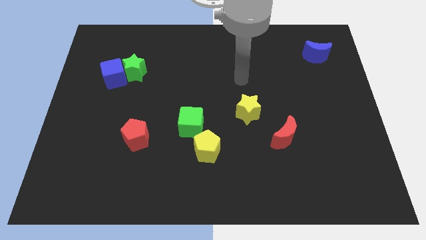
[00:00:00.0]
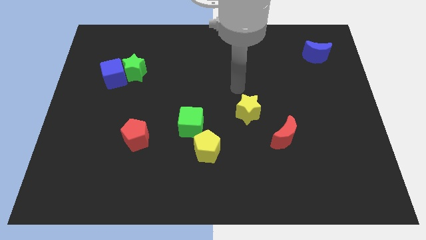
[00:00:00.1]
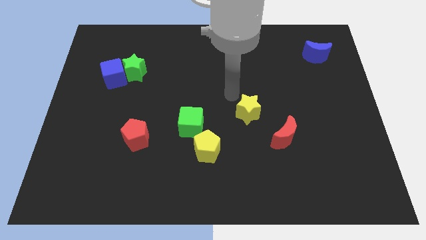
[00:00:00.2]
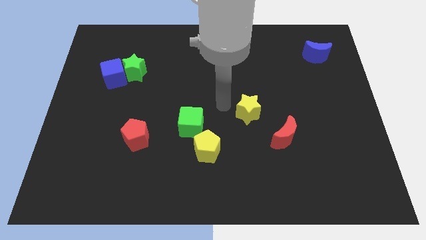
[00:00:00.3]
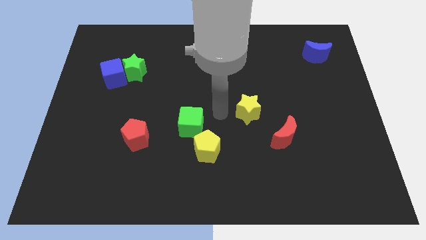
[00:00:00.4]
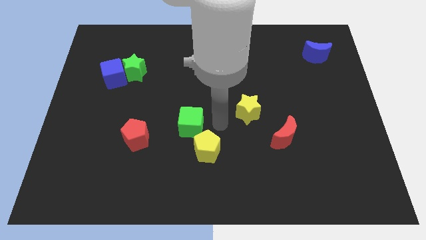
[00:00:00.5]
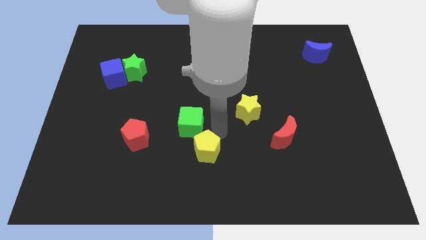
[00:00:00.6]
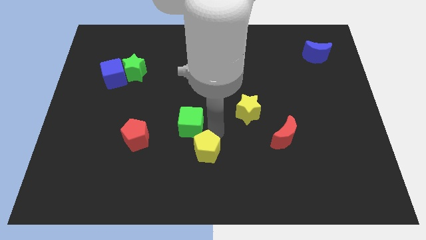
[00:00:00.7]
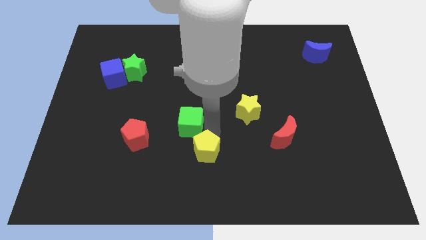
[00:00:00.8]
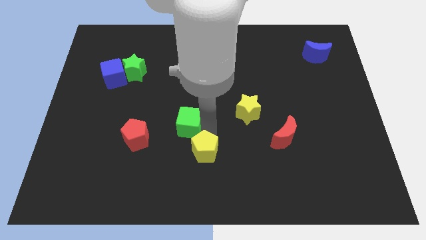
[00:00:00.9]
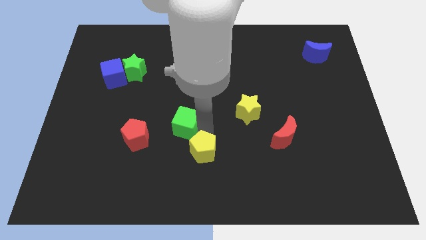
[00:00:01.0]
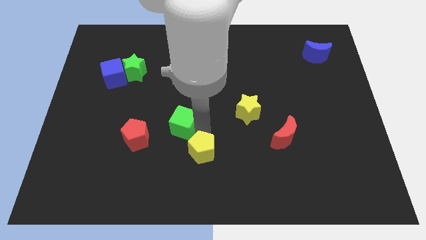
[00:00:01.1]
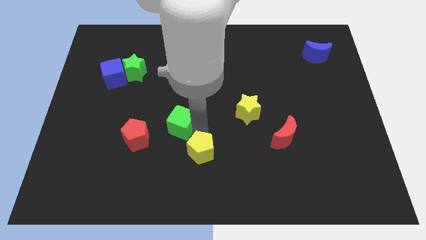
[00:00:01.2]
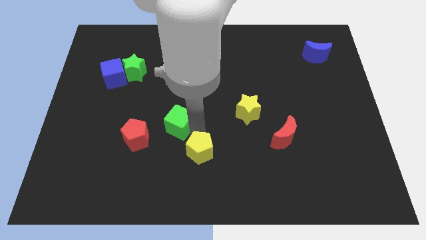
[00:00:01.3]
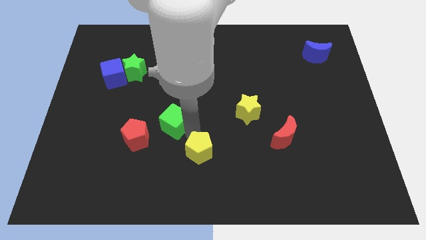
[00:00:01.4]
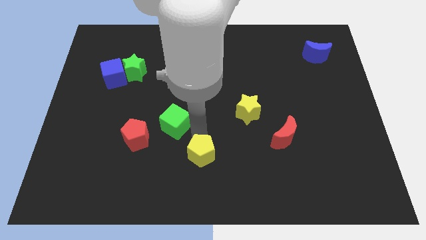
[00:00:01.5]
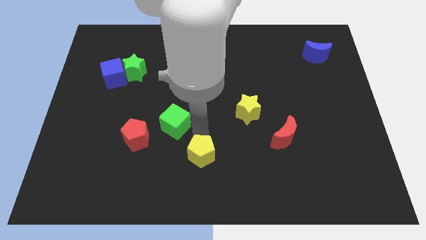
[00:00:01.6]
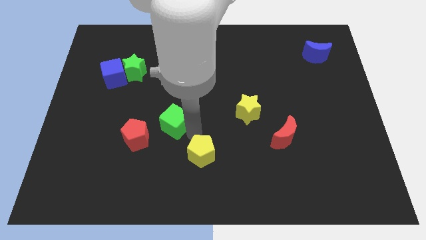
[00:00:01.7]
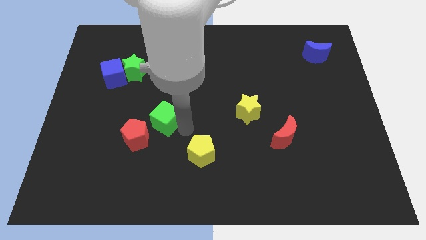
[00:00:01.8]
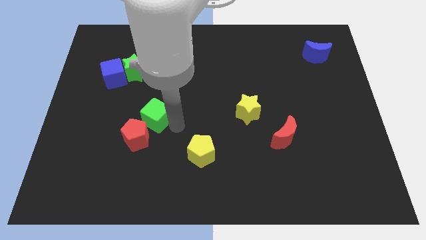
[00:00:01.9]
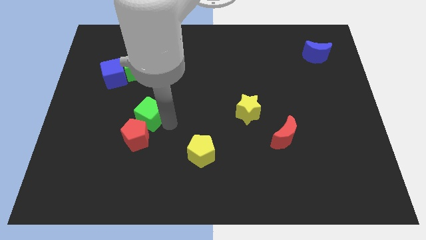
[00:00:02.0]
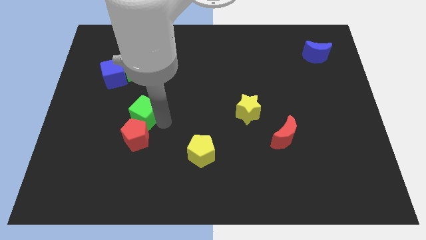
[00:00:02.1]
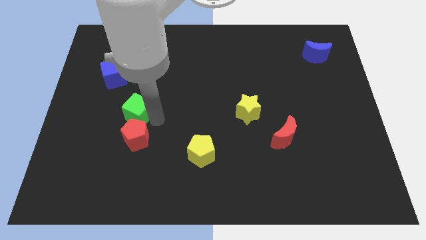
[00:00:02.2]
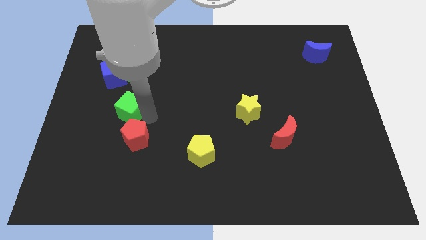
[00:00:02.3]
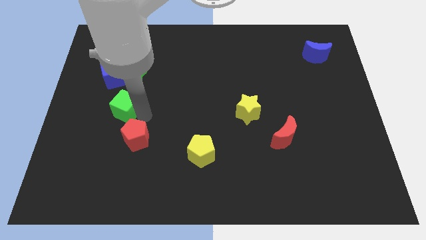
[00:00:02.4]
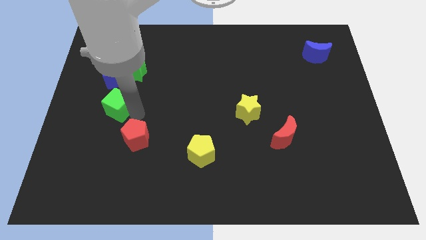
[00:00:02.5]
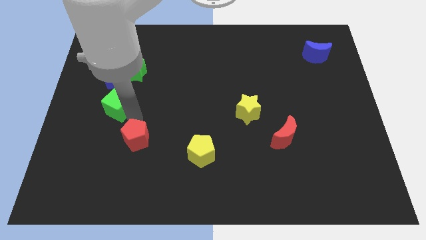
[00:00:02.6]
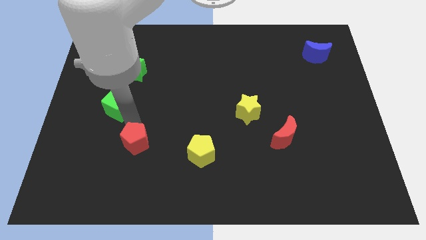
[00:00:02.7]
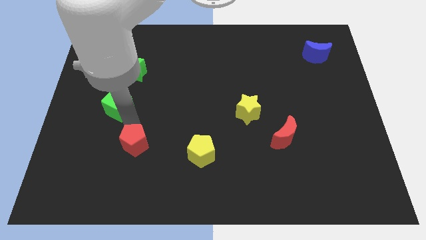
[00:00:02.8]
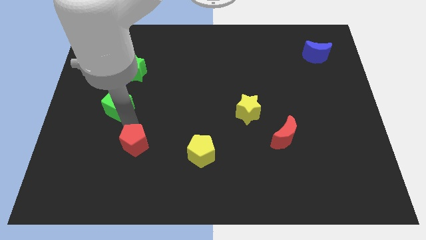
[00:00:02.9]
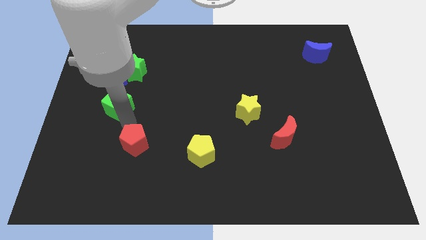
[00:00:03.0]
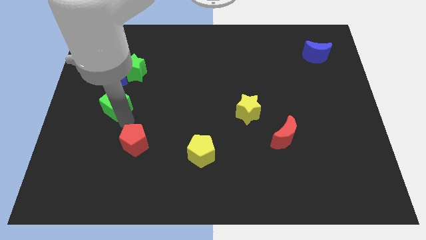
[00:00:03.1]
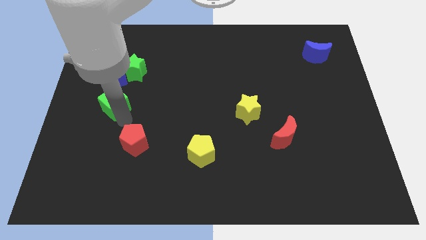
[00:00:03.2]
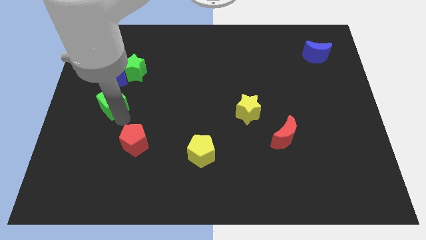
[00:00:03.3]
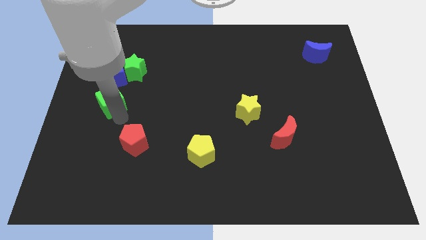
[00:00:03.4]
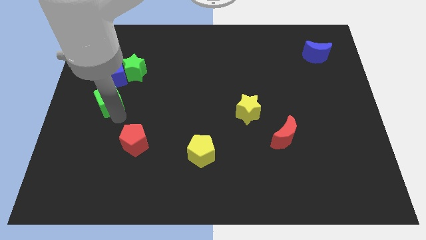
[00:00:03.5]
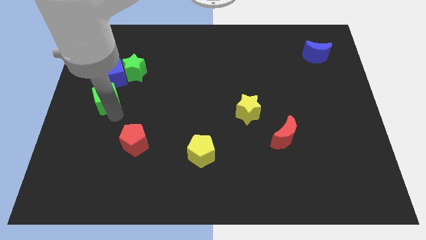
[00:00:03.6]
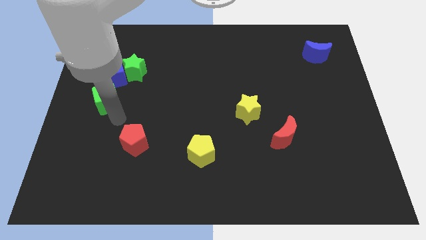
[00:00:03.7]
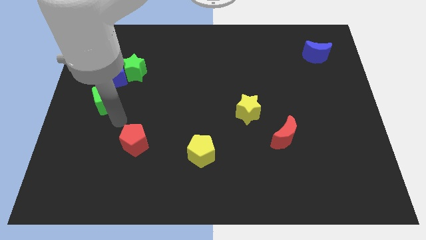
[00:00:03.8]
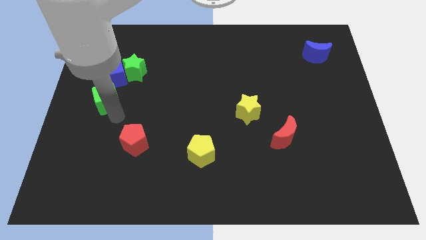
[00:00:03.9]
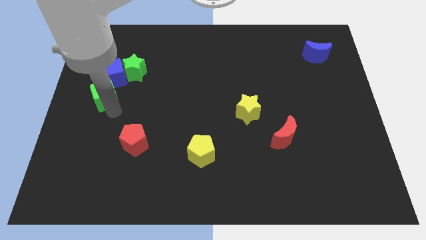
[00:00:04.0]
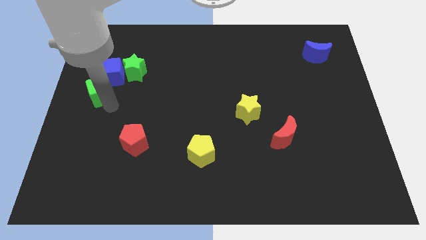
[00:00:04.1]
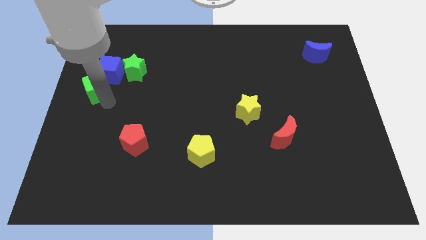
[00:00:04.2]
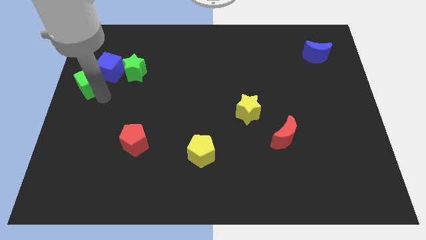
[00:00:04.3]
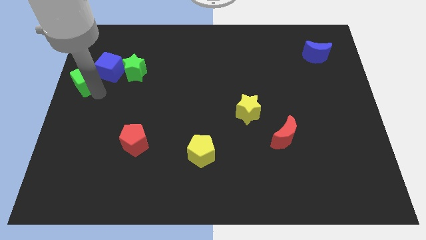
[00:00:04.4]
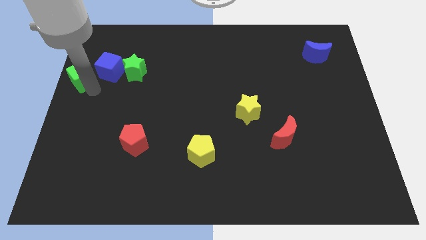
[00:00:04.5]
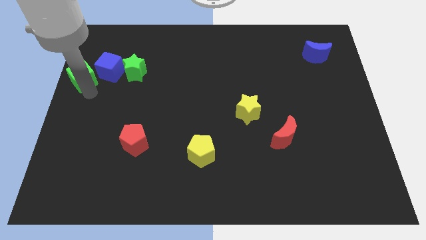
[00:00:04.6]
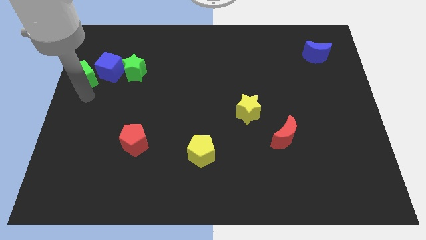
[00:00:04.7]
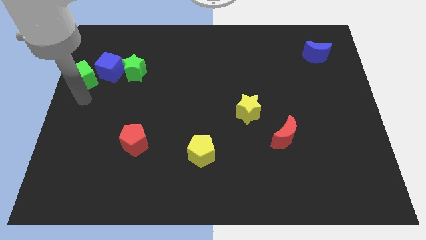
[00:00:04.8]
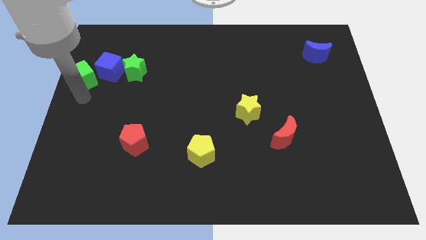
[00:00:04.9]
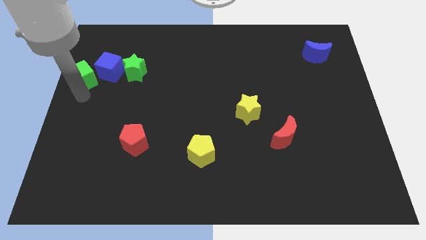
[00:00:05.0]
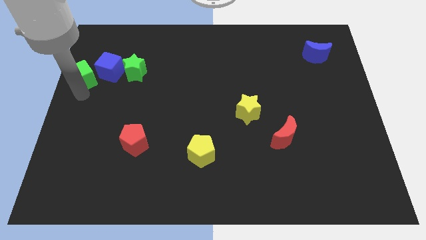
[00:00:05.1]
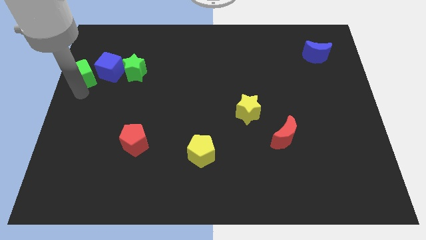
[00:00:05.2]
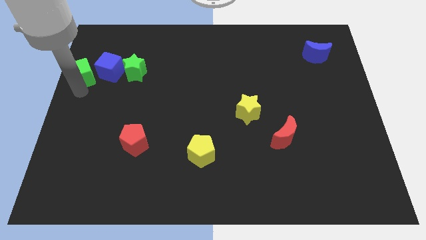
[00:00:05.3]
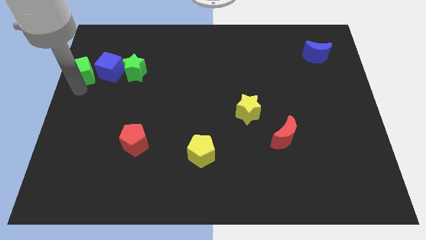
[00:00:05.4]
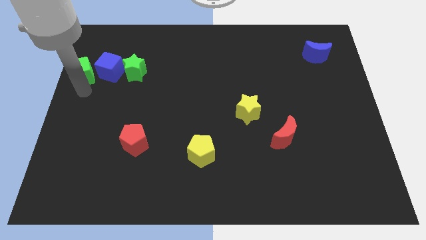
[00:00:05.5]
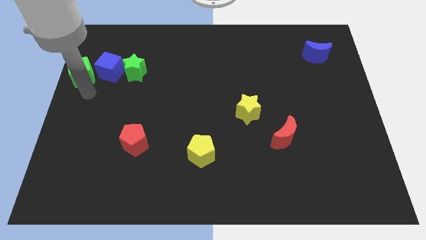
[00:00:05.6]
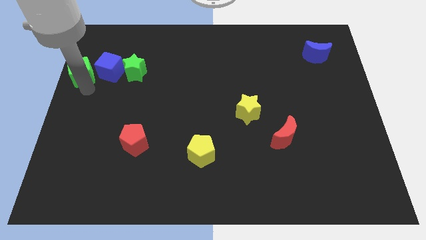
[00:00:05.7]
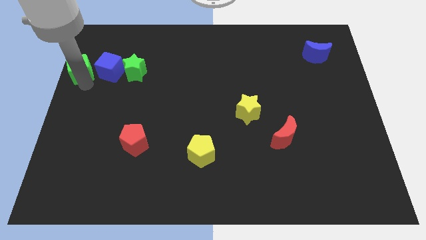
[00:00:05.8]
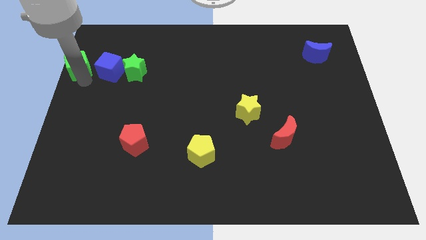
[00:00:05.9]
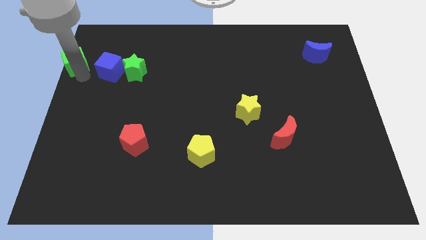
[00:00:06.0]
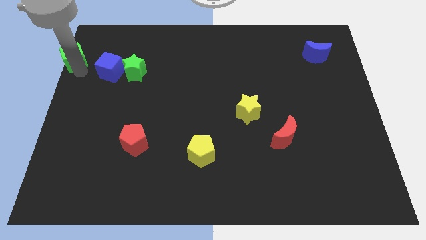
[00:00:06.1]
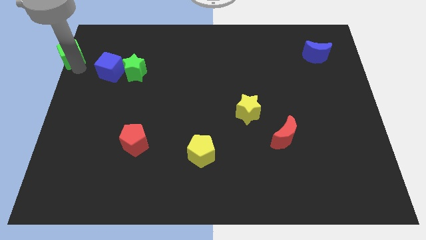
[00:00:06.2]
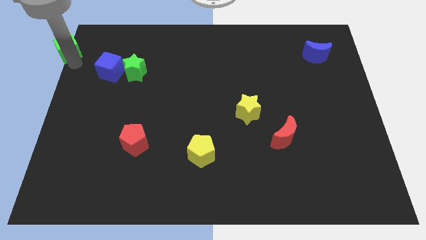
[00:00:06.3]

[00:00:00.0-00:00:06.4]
move the green cube to the upper left corner

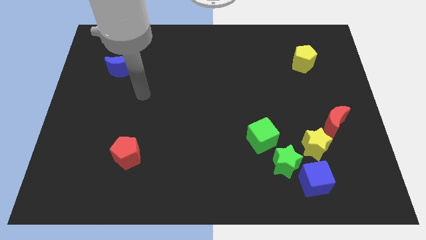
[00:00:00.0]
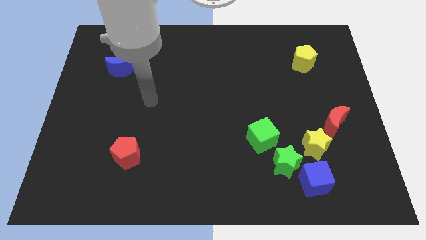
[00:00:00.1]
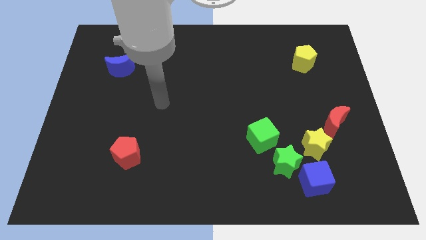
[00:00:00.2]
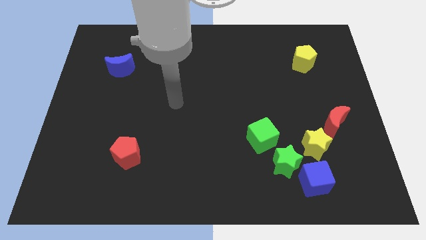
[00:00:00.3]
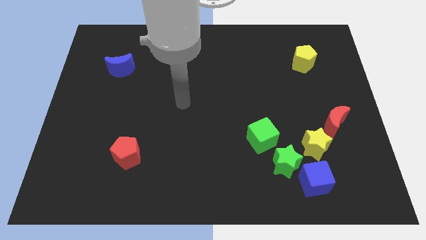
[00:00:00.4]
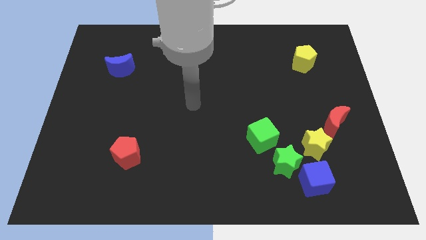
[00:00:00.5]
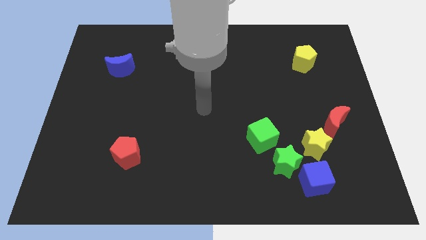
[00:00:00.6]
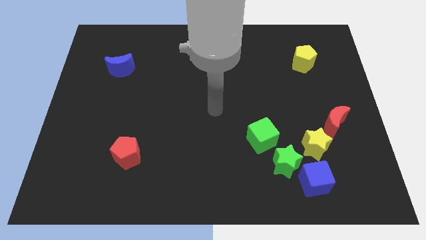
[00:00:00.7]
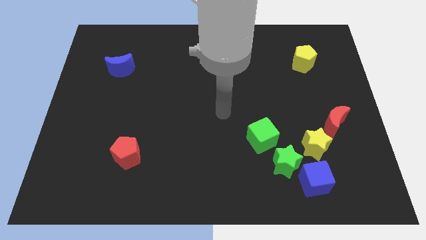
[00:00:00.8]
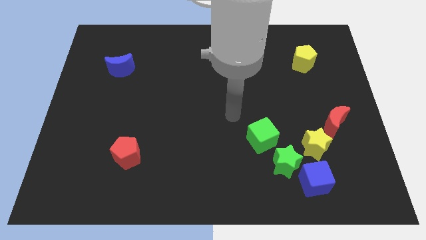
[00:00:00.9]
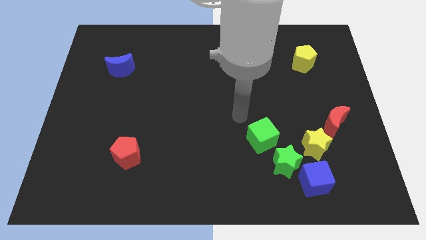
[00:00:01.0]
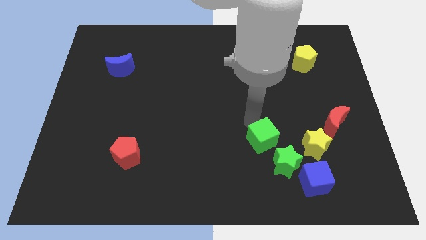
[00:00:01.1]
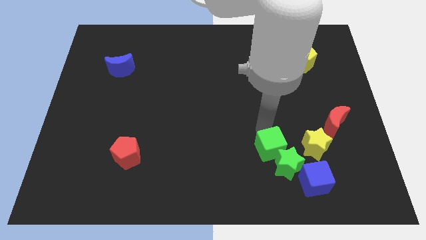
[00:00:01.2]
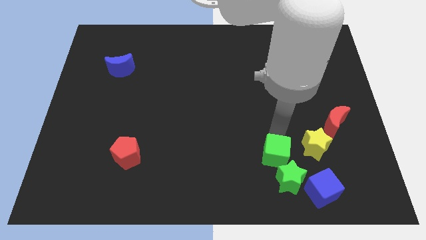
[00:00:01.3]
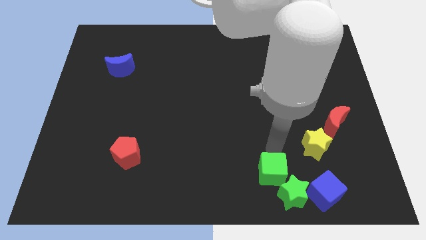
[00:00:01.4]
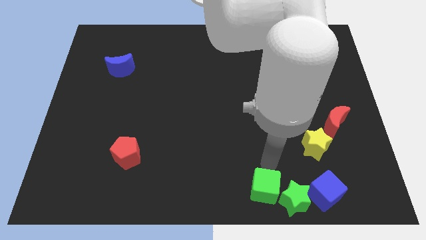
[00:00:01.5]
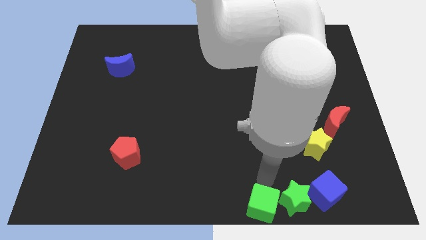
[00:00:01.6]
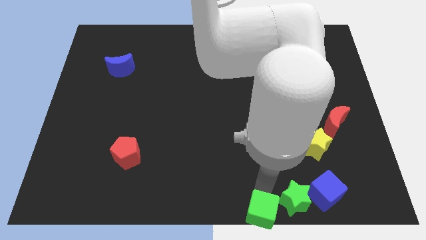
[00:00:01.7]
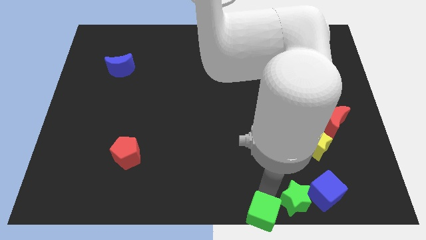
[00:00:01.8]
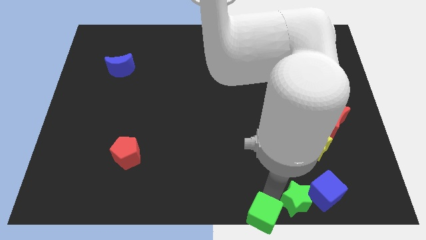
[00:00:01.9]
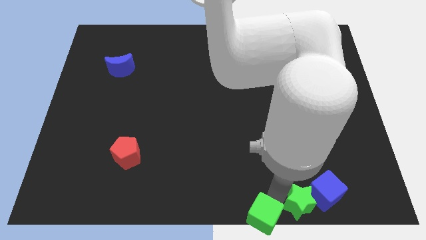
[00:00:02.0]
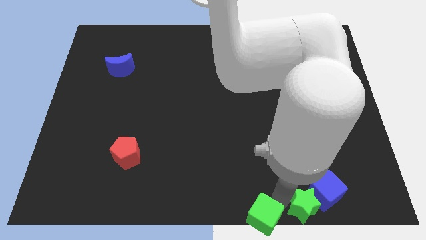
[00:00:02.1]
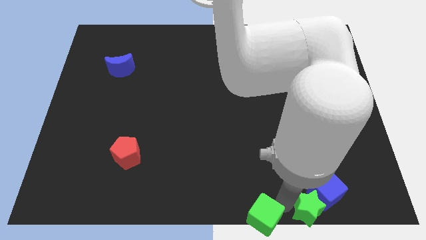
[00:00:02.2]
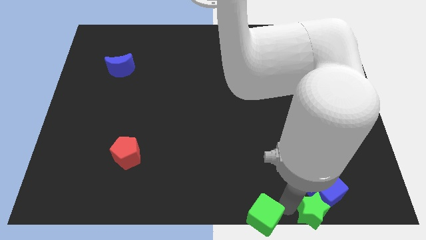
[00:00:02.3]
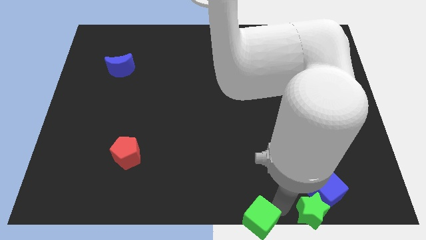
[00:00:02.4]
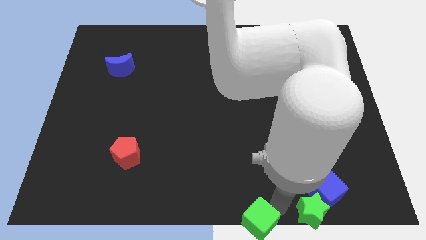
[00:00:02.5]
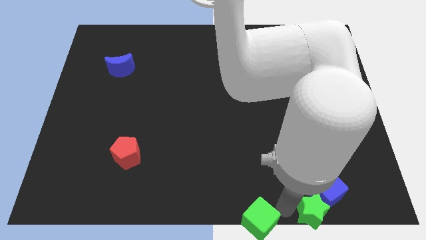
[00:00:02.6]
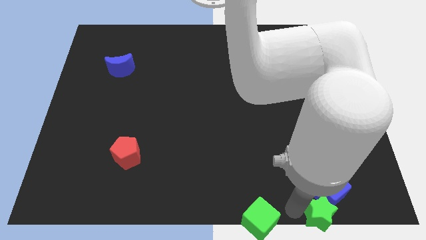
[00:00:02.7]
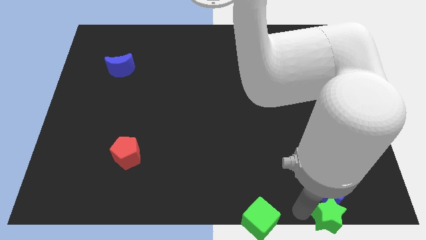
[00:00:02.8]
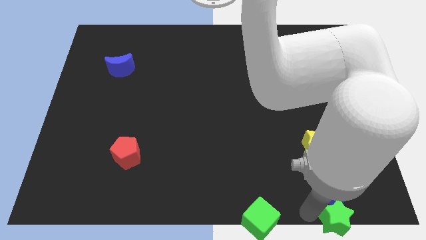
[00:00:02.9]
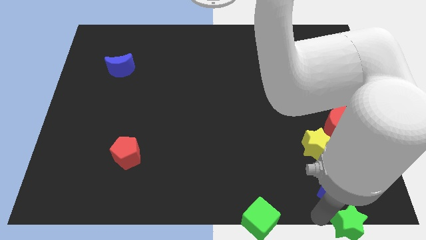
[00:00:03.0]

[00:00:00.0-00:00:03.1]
move the green star to the lower right corner
